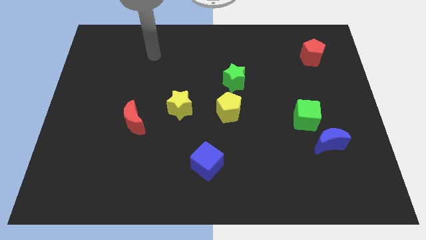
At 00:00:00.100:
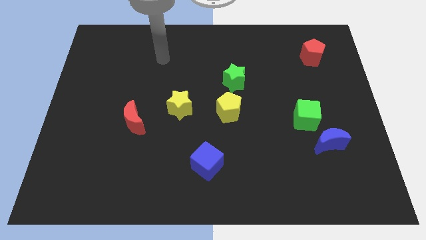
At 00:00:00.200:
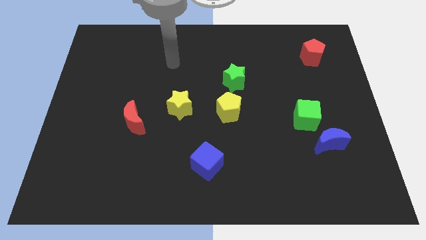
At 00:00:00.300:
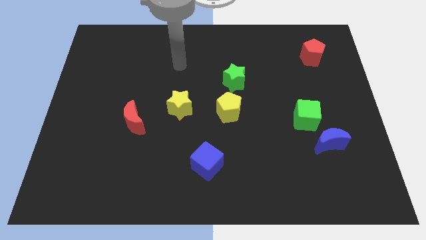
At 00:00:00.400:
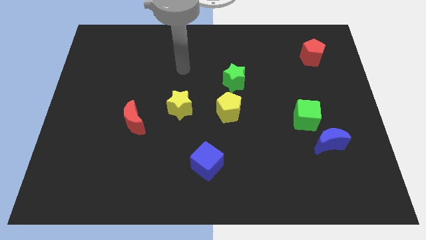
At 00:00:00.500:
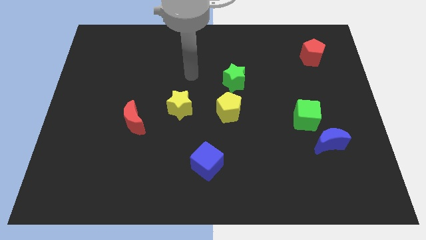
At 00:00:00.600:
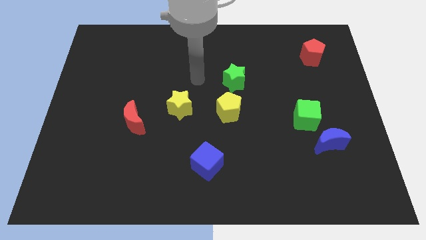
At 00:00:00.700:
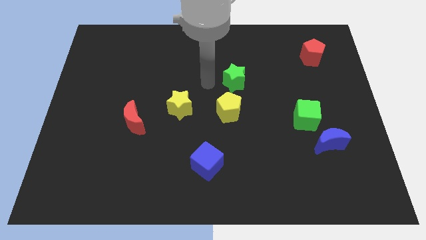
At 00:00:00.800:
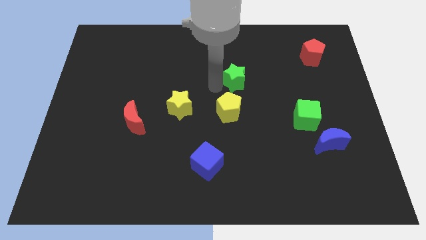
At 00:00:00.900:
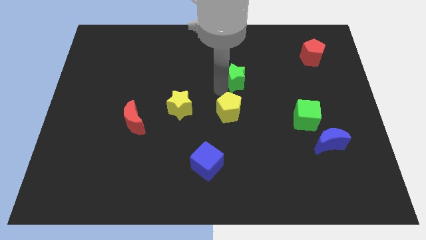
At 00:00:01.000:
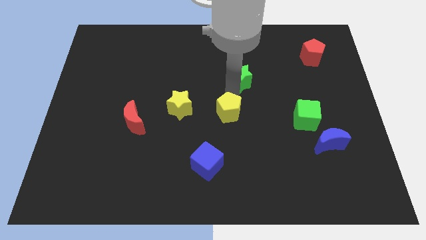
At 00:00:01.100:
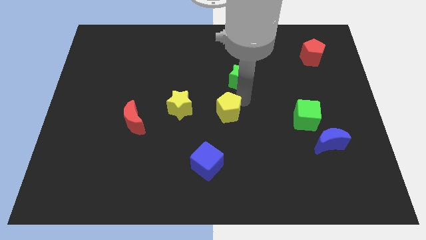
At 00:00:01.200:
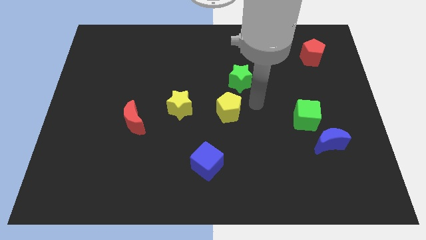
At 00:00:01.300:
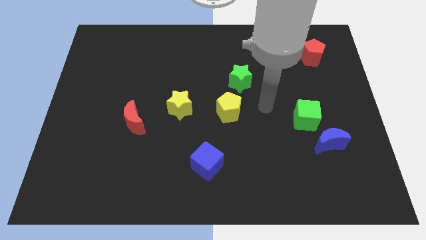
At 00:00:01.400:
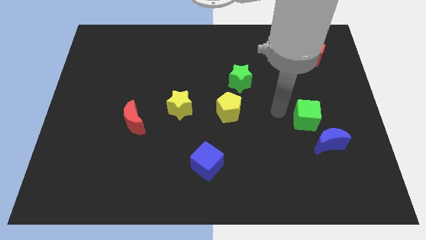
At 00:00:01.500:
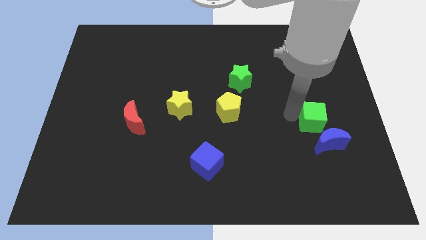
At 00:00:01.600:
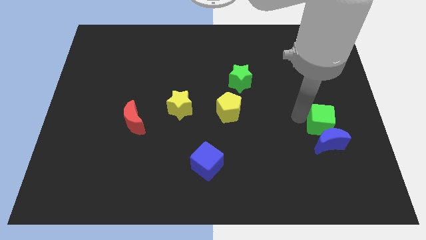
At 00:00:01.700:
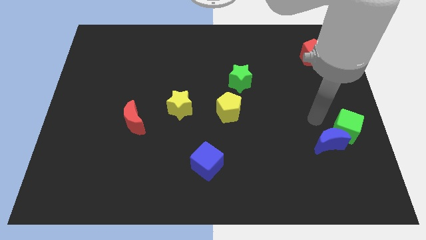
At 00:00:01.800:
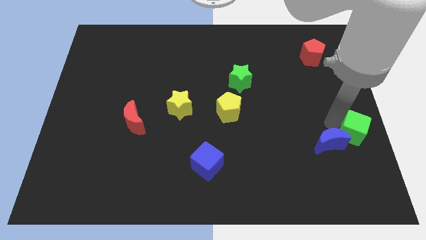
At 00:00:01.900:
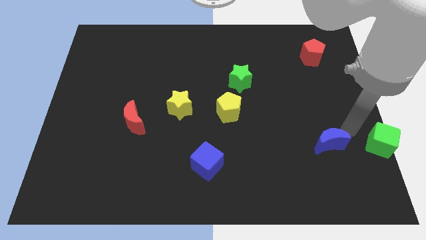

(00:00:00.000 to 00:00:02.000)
pull the blue moon apart from the green cube

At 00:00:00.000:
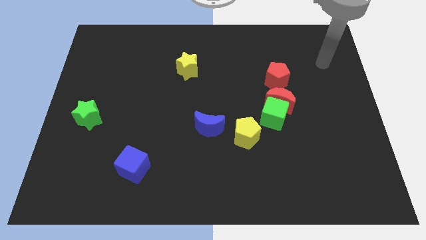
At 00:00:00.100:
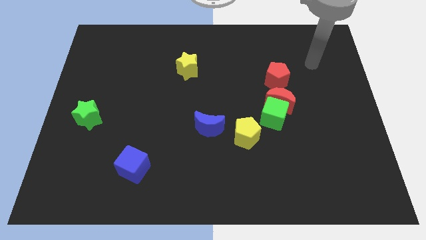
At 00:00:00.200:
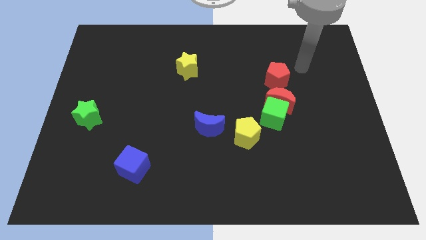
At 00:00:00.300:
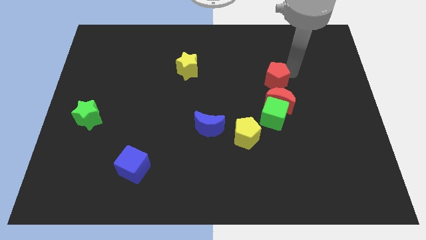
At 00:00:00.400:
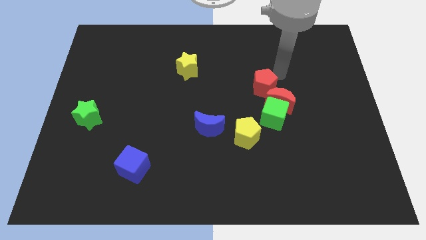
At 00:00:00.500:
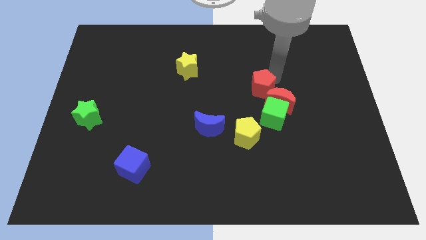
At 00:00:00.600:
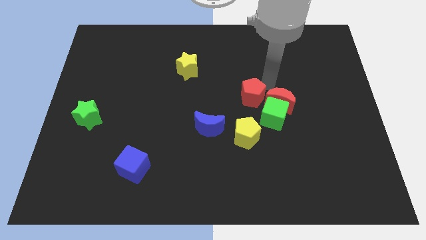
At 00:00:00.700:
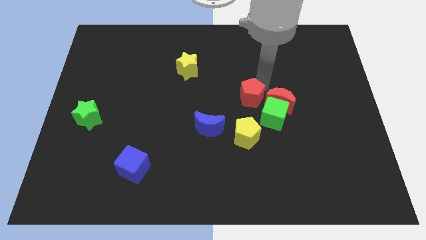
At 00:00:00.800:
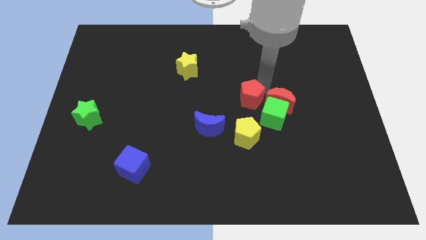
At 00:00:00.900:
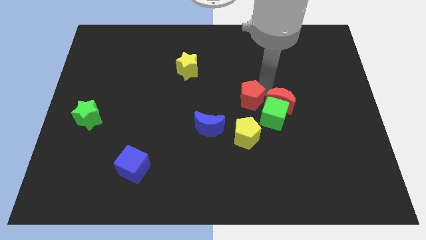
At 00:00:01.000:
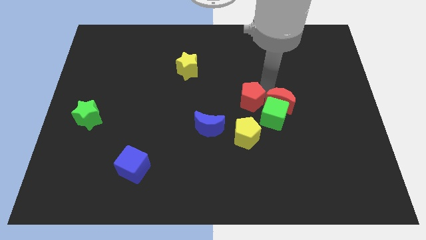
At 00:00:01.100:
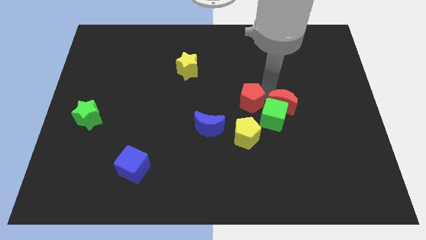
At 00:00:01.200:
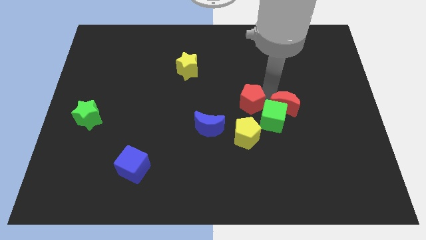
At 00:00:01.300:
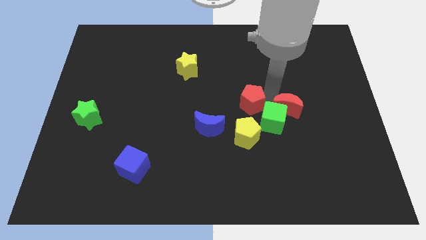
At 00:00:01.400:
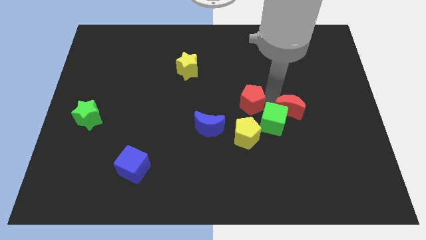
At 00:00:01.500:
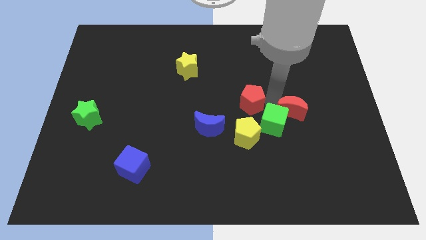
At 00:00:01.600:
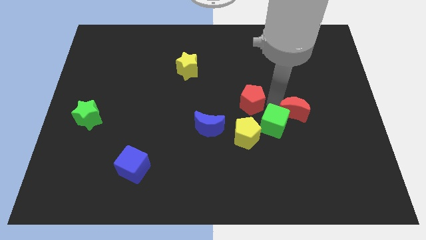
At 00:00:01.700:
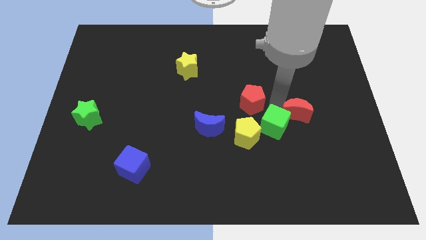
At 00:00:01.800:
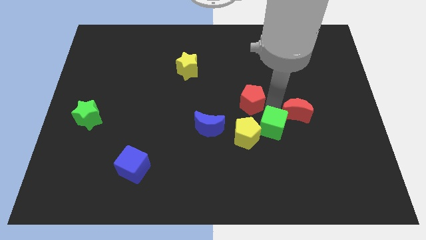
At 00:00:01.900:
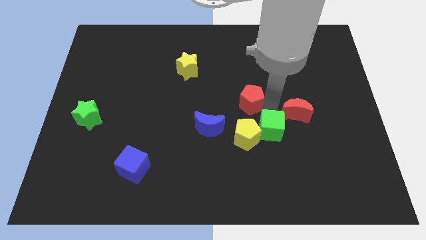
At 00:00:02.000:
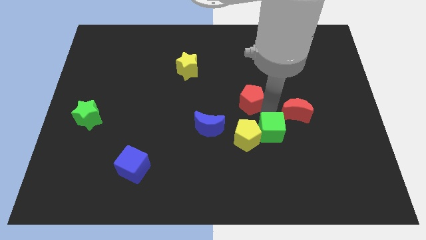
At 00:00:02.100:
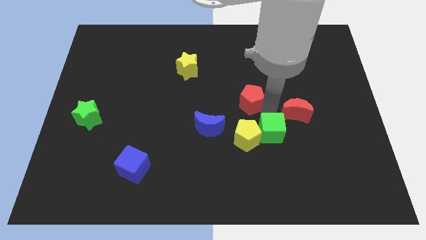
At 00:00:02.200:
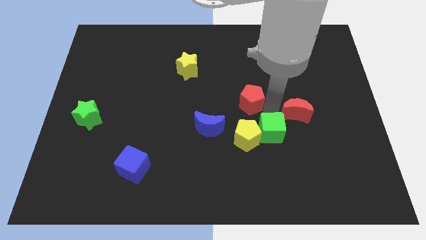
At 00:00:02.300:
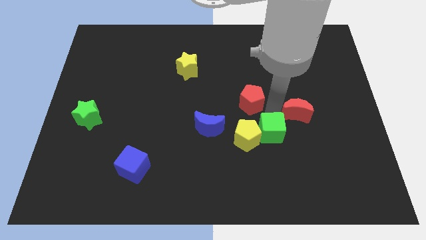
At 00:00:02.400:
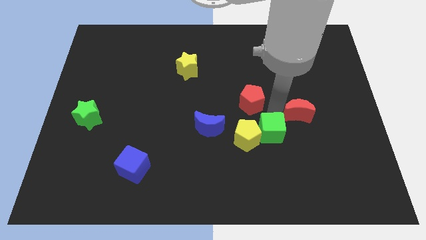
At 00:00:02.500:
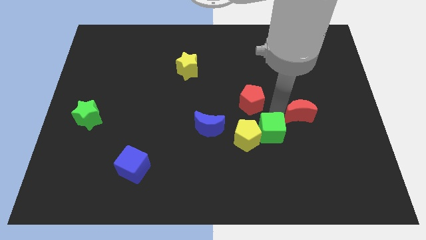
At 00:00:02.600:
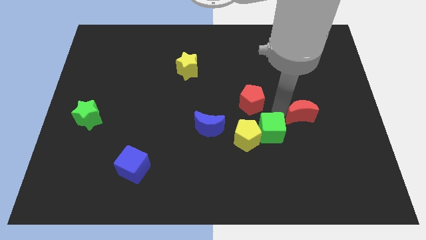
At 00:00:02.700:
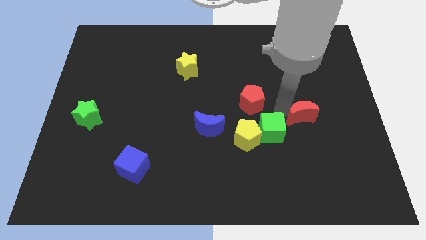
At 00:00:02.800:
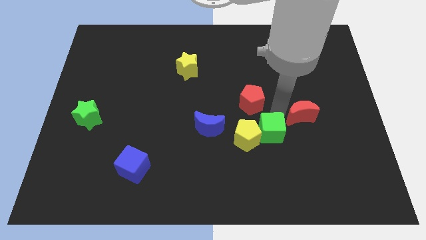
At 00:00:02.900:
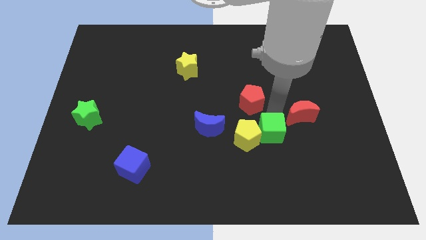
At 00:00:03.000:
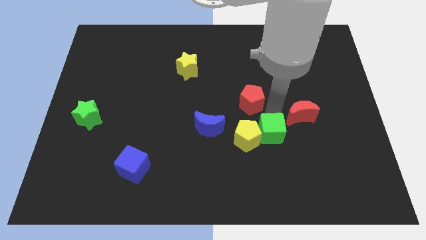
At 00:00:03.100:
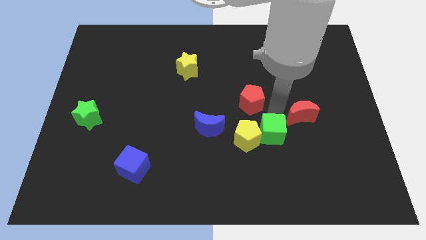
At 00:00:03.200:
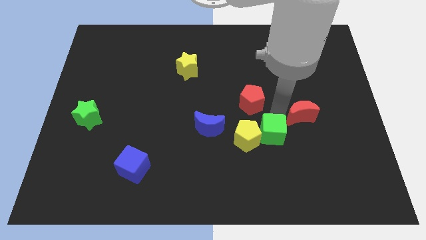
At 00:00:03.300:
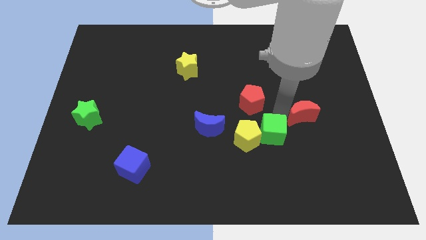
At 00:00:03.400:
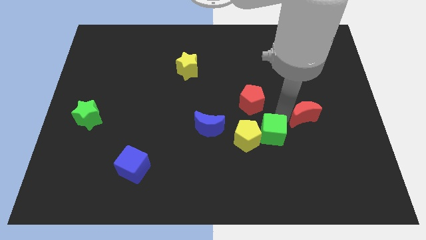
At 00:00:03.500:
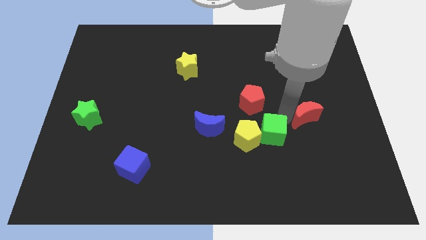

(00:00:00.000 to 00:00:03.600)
move the red moon away from the green cube and red pentagon

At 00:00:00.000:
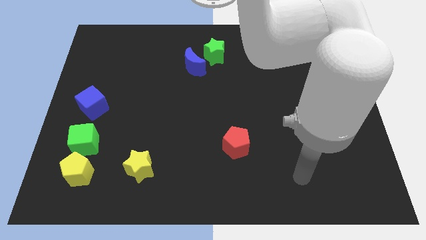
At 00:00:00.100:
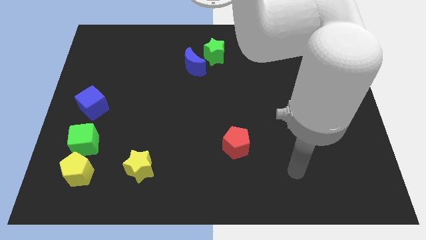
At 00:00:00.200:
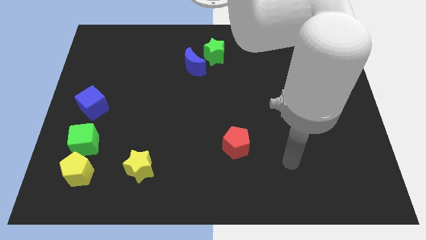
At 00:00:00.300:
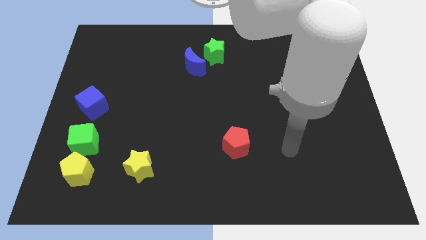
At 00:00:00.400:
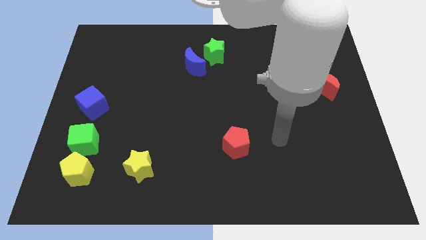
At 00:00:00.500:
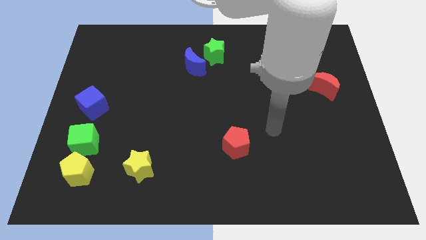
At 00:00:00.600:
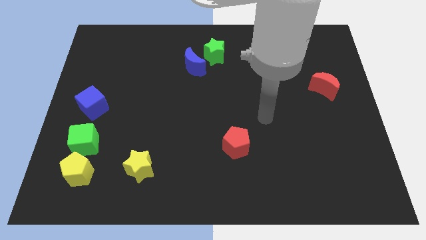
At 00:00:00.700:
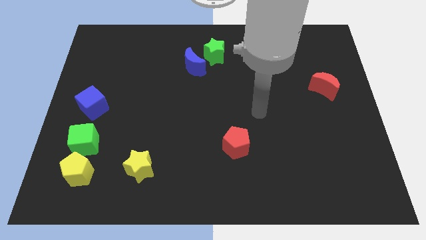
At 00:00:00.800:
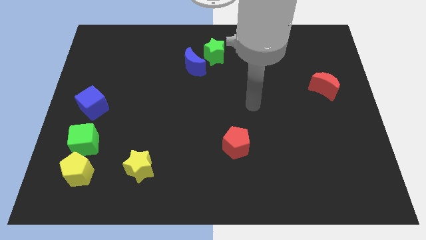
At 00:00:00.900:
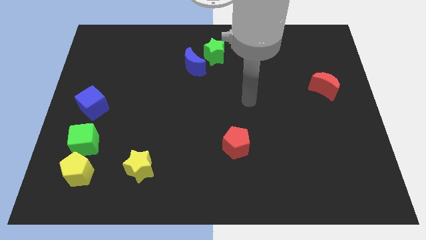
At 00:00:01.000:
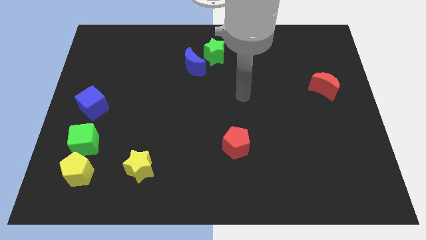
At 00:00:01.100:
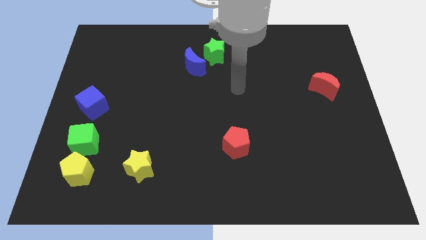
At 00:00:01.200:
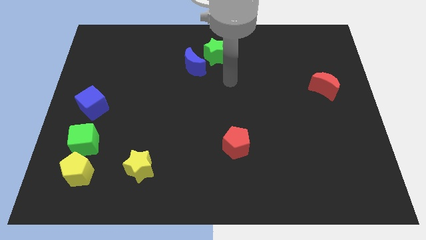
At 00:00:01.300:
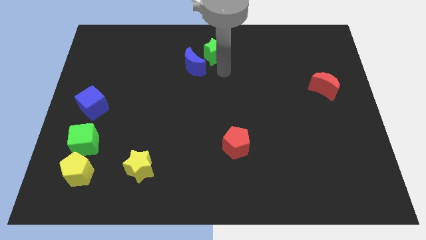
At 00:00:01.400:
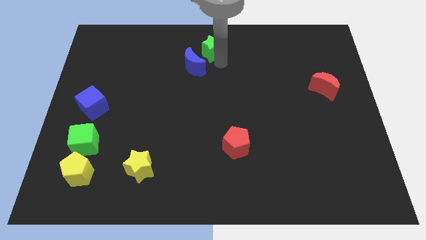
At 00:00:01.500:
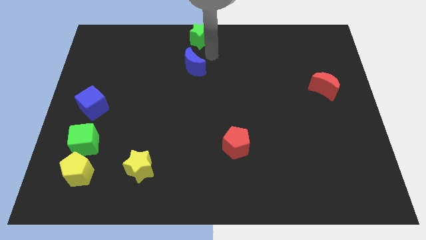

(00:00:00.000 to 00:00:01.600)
pull the blue moon apart from the green star

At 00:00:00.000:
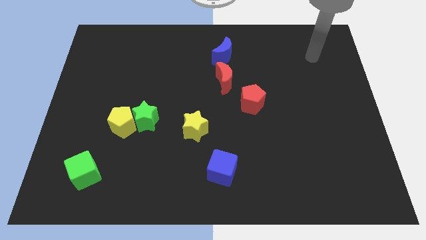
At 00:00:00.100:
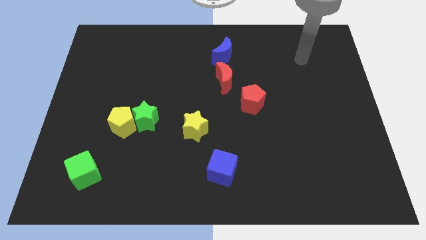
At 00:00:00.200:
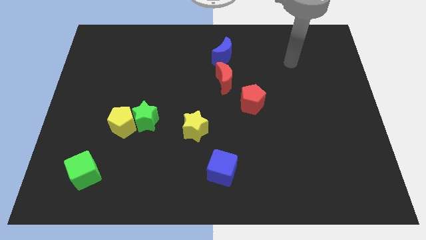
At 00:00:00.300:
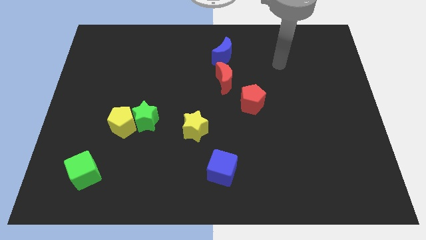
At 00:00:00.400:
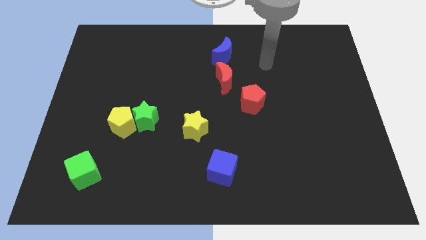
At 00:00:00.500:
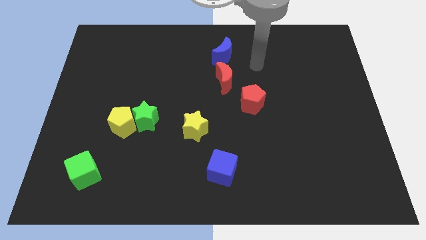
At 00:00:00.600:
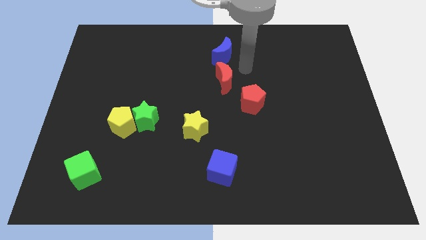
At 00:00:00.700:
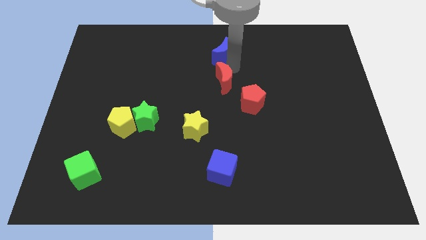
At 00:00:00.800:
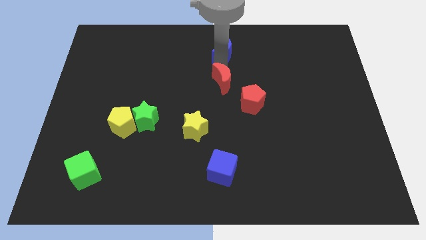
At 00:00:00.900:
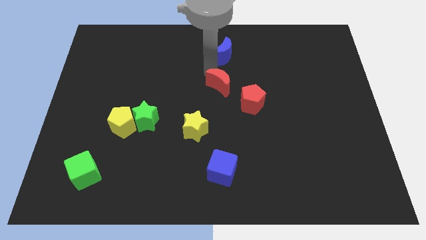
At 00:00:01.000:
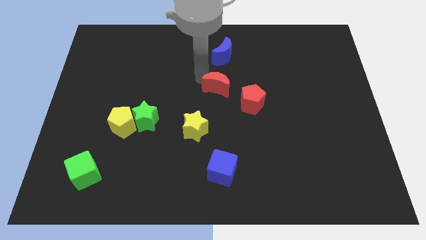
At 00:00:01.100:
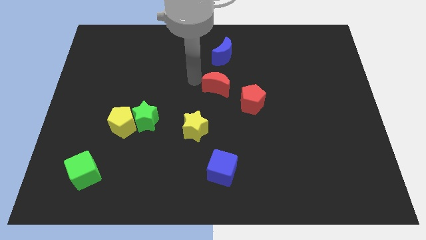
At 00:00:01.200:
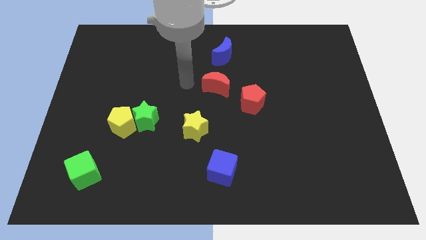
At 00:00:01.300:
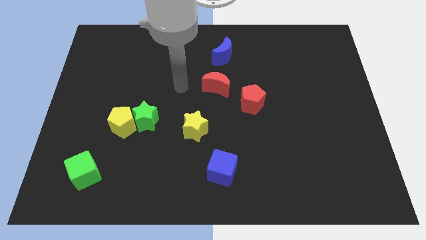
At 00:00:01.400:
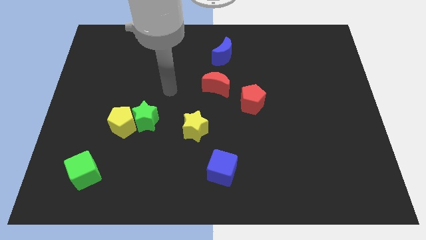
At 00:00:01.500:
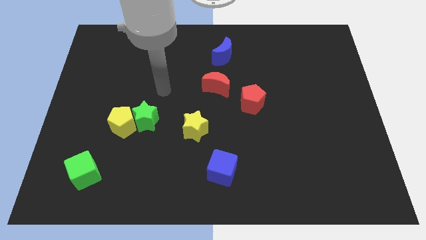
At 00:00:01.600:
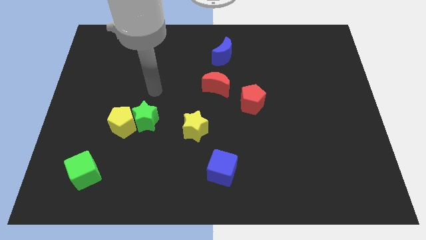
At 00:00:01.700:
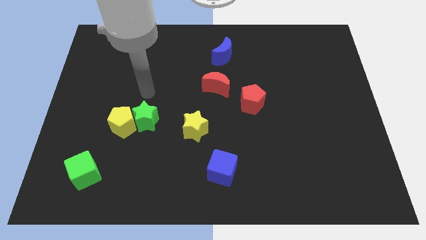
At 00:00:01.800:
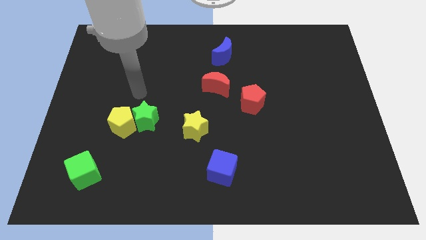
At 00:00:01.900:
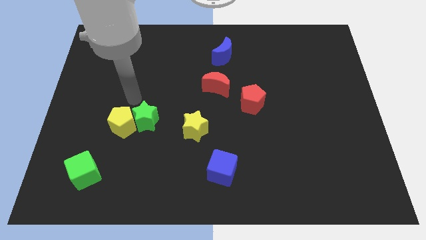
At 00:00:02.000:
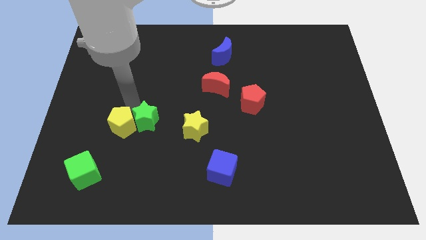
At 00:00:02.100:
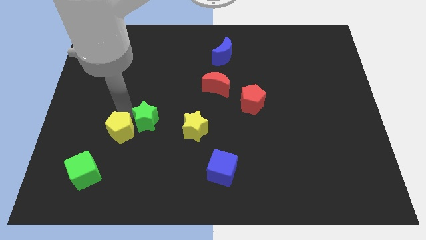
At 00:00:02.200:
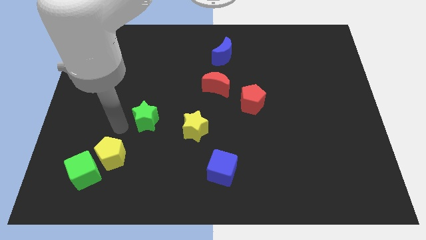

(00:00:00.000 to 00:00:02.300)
pull the green star apart from the yellow pentagon
